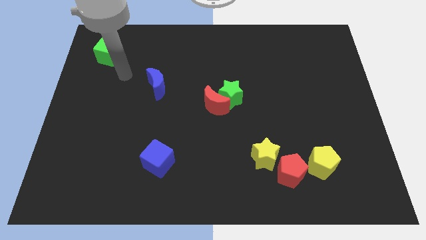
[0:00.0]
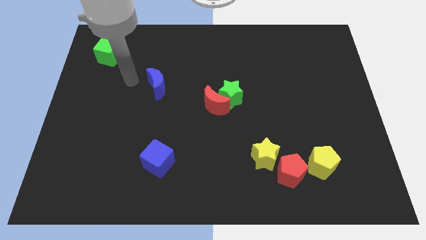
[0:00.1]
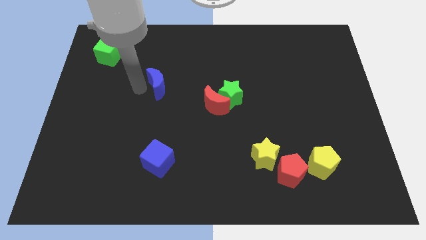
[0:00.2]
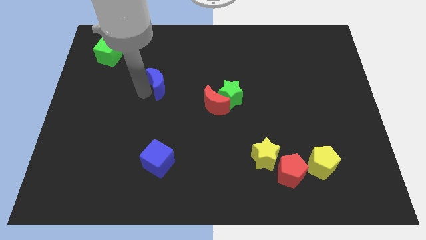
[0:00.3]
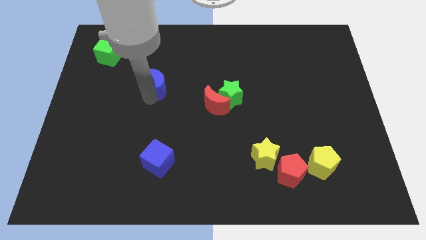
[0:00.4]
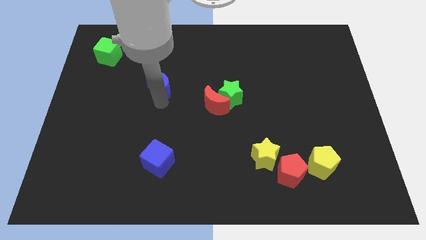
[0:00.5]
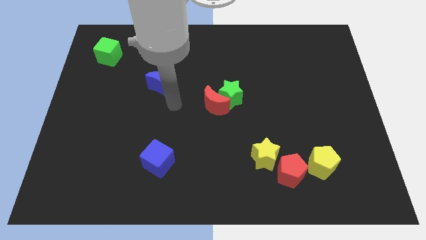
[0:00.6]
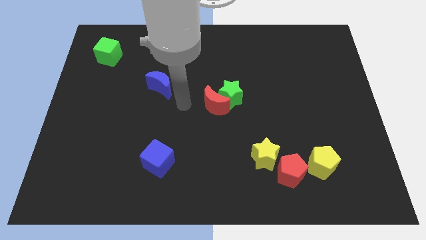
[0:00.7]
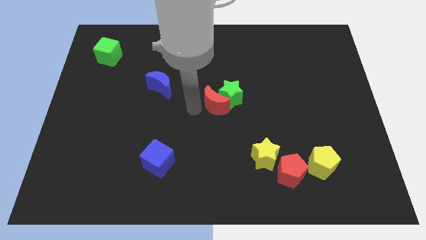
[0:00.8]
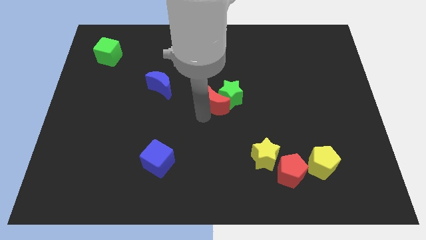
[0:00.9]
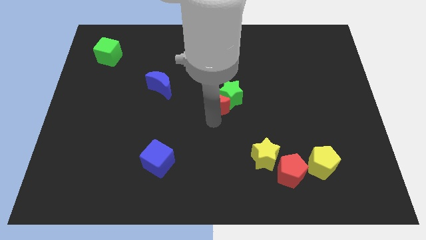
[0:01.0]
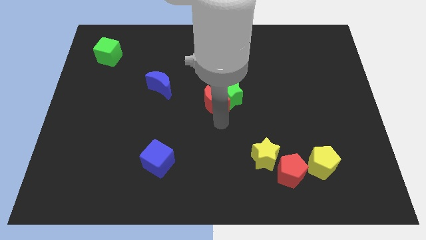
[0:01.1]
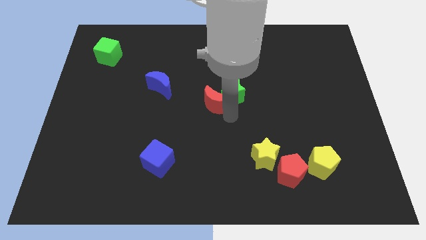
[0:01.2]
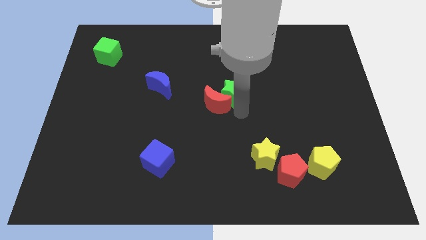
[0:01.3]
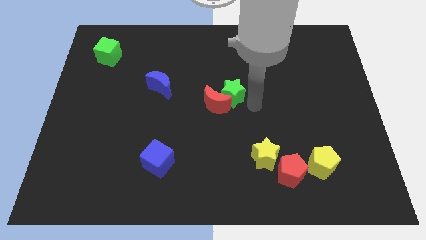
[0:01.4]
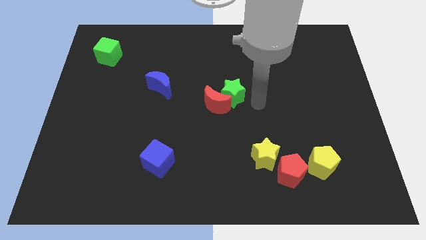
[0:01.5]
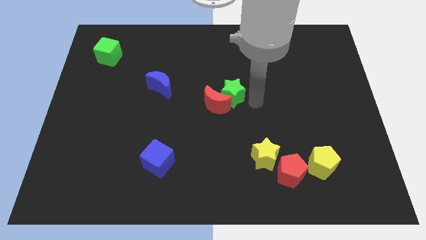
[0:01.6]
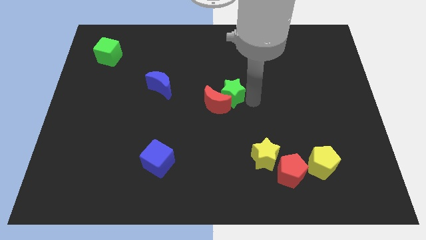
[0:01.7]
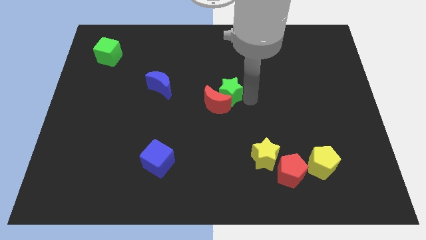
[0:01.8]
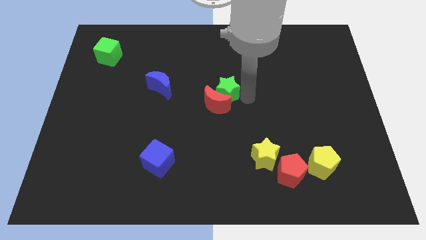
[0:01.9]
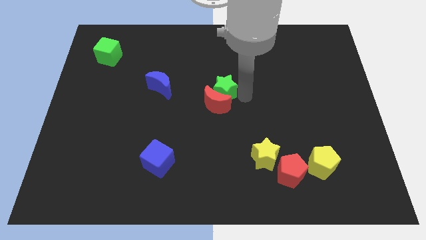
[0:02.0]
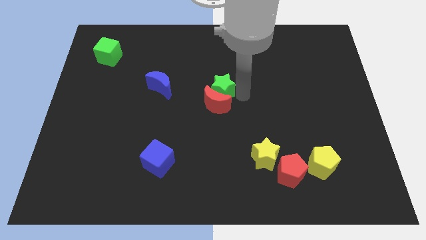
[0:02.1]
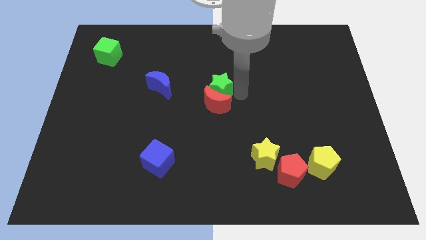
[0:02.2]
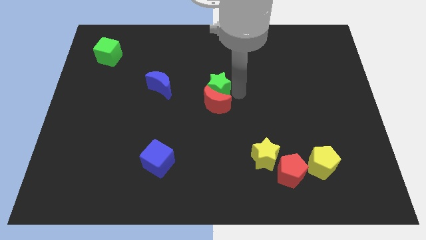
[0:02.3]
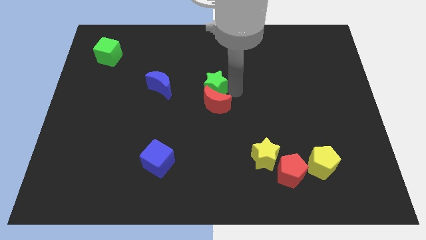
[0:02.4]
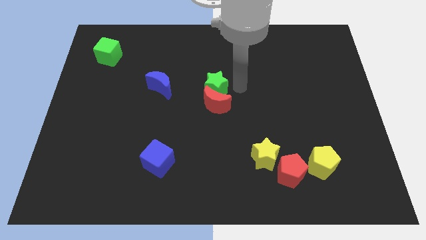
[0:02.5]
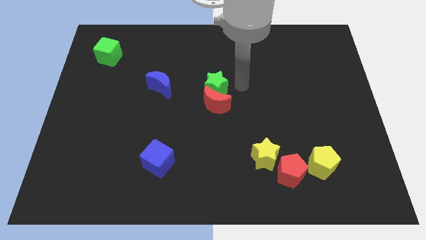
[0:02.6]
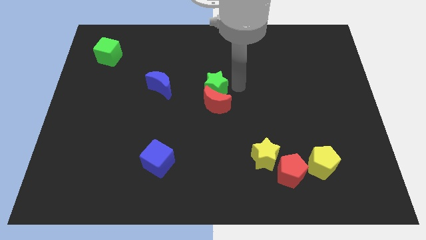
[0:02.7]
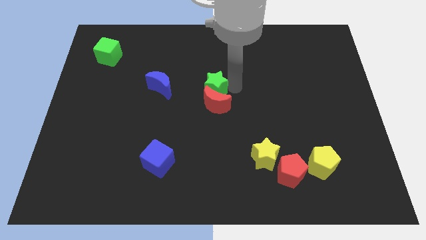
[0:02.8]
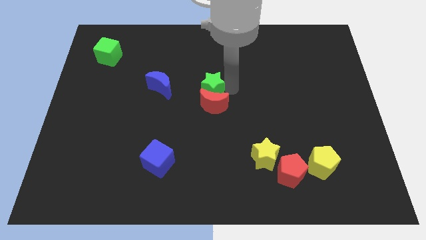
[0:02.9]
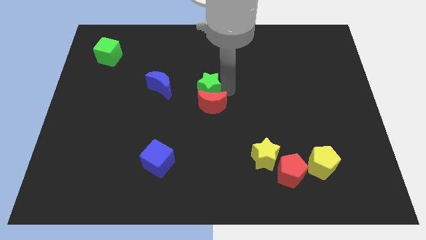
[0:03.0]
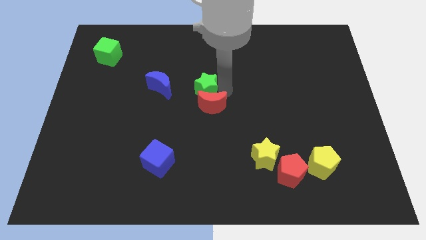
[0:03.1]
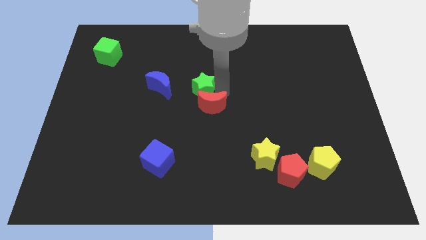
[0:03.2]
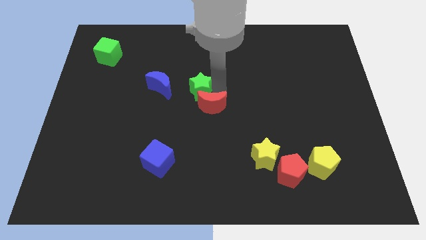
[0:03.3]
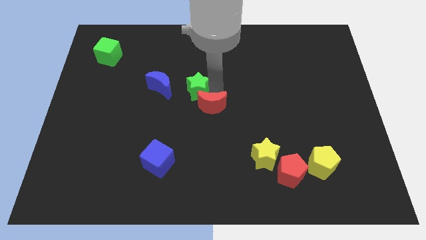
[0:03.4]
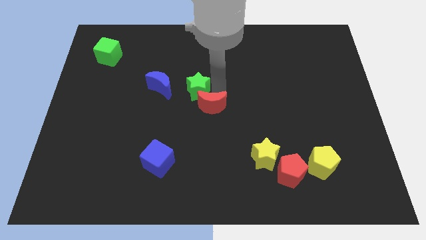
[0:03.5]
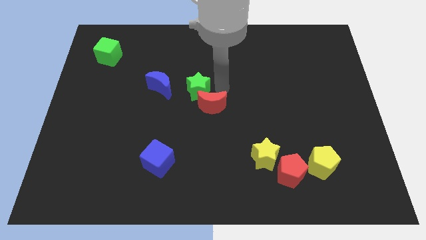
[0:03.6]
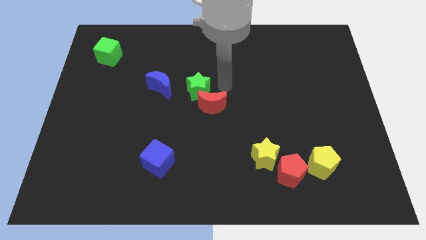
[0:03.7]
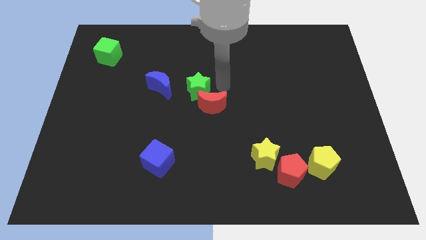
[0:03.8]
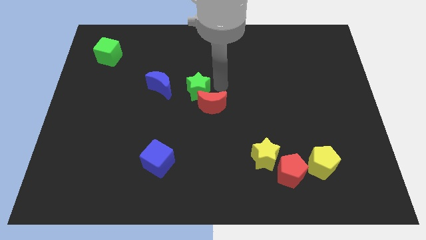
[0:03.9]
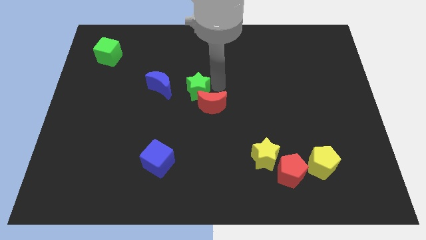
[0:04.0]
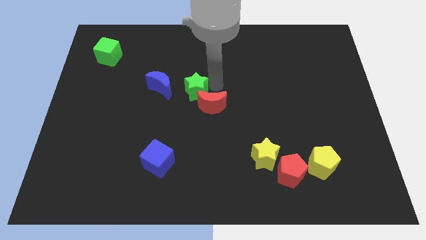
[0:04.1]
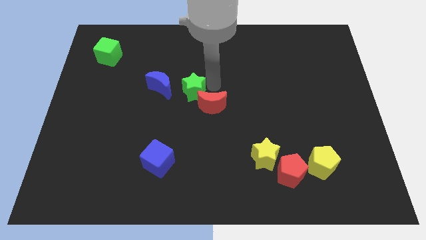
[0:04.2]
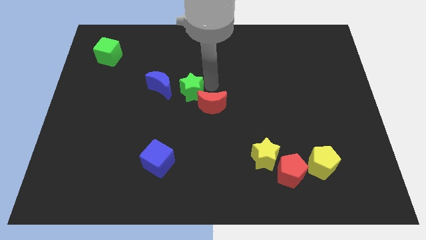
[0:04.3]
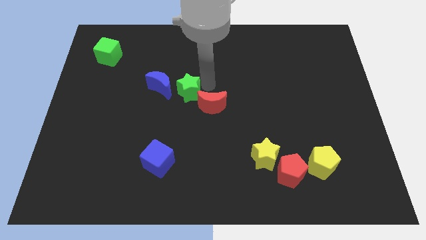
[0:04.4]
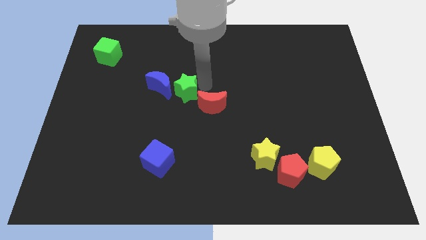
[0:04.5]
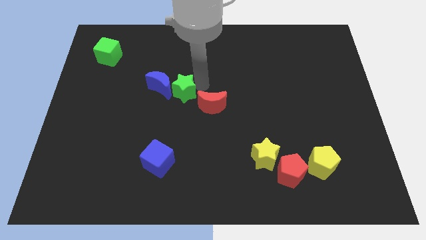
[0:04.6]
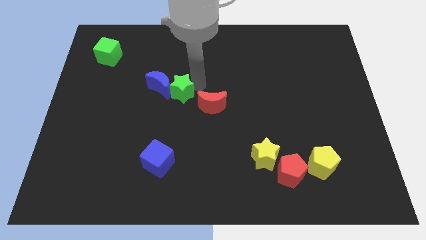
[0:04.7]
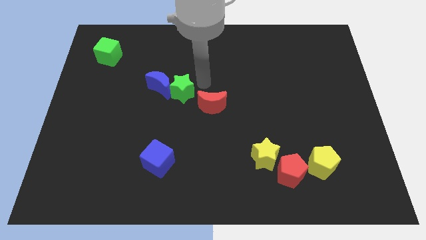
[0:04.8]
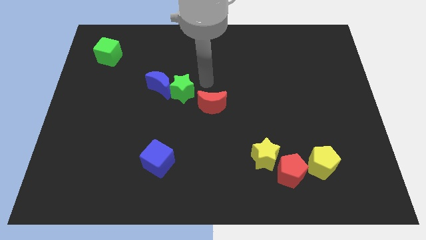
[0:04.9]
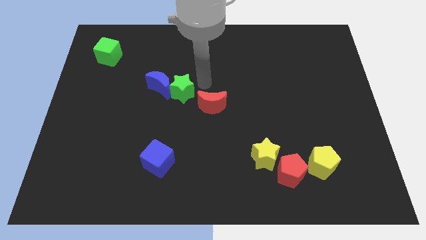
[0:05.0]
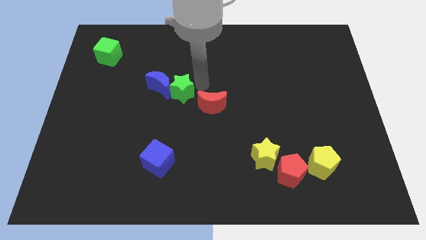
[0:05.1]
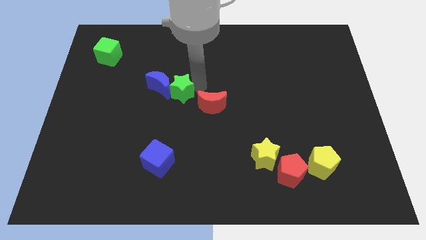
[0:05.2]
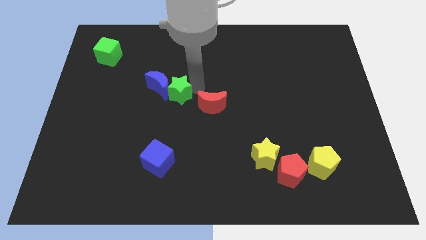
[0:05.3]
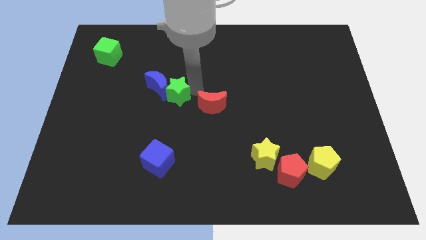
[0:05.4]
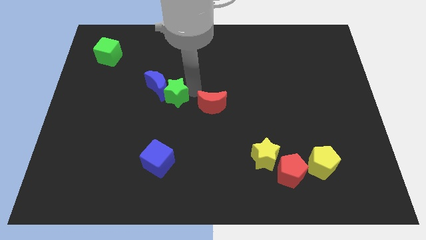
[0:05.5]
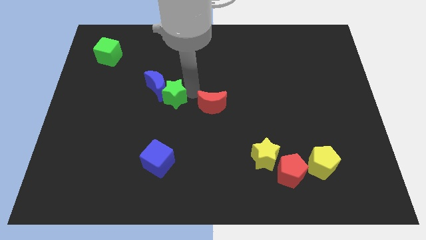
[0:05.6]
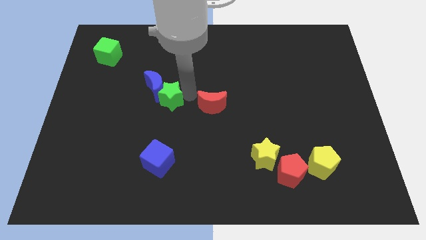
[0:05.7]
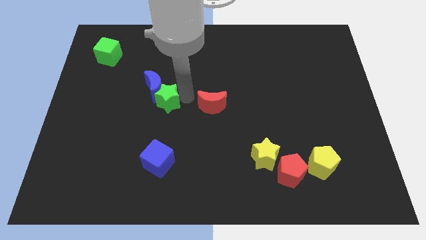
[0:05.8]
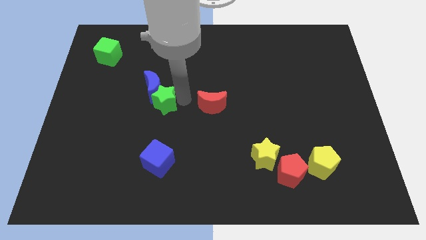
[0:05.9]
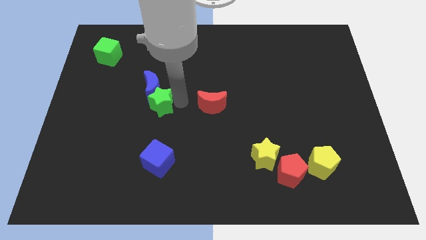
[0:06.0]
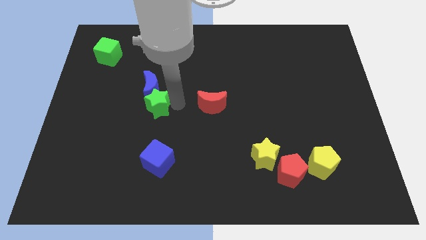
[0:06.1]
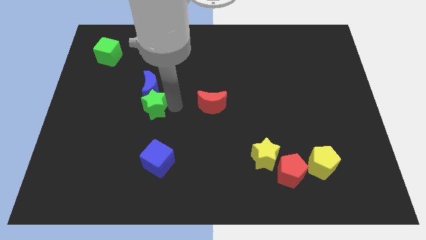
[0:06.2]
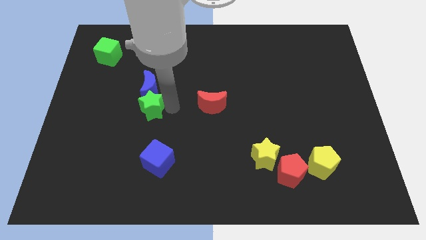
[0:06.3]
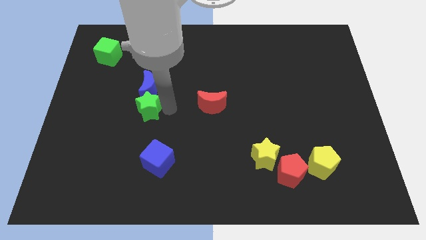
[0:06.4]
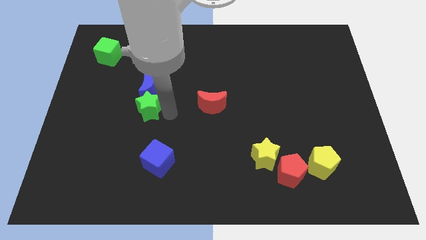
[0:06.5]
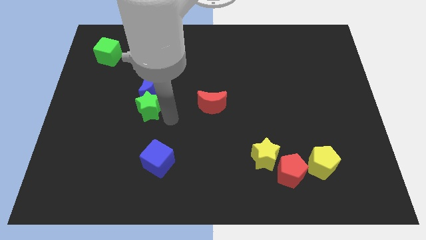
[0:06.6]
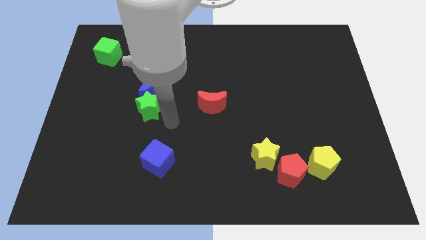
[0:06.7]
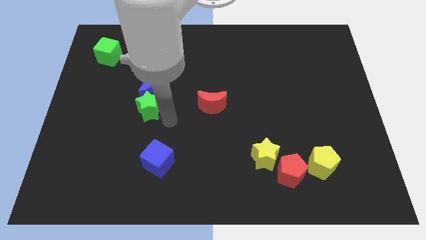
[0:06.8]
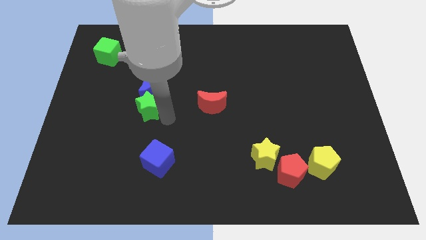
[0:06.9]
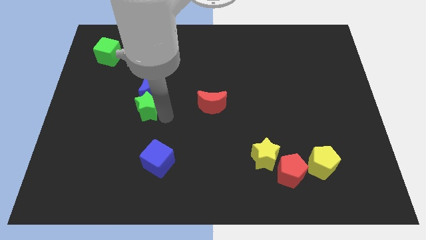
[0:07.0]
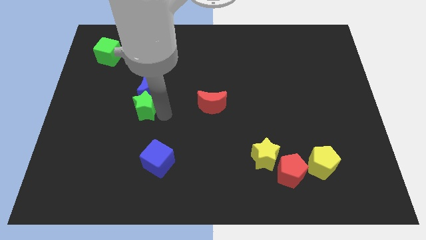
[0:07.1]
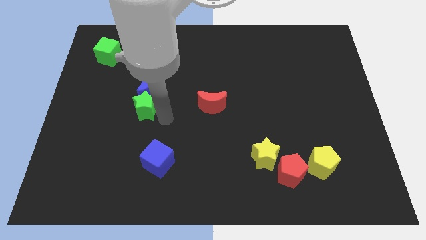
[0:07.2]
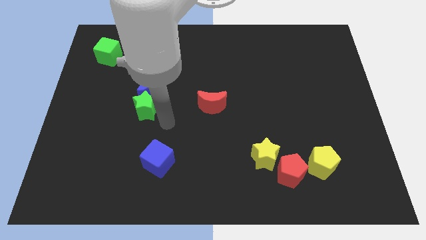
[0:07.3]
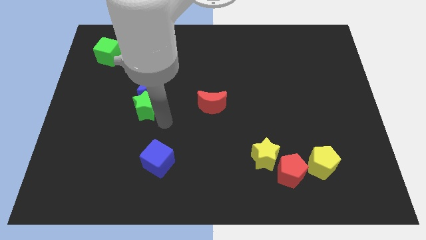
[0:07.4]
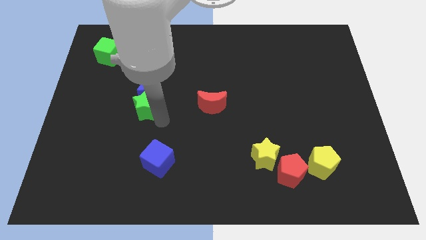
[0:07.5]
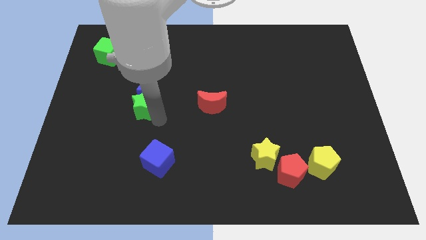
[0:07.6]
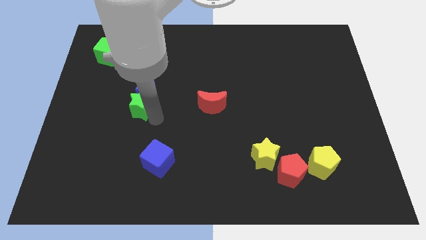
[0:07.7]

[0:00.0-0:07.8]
move the green star left
